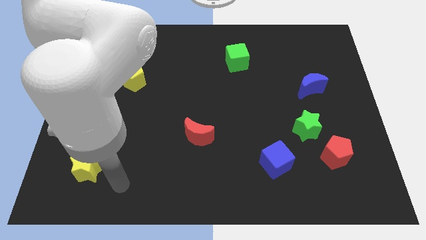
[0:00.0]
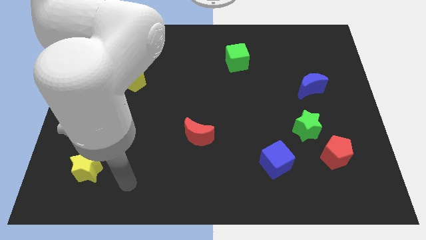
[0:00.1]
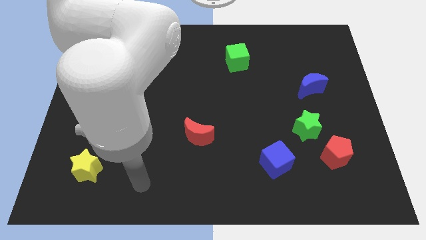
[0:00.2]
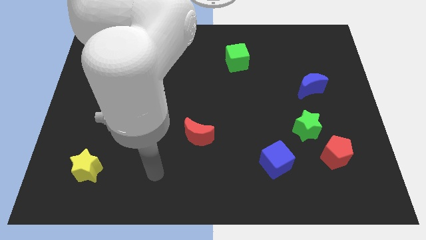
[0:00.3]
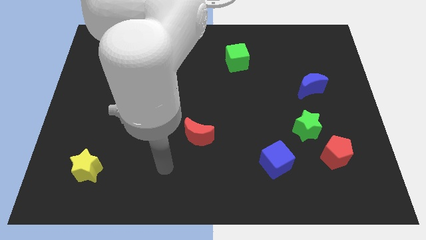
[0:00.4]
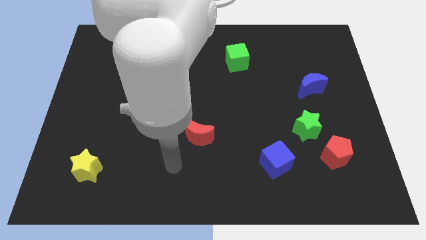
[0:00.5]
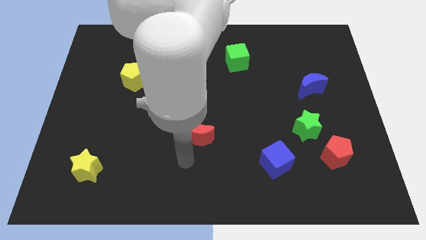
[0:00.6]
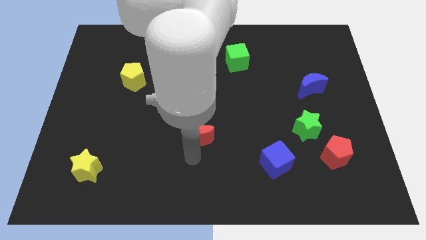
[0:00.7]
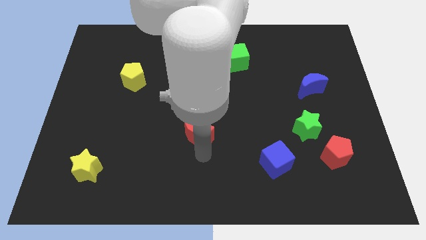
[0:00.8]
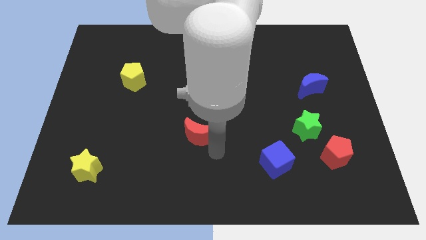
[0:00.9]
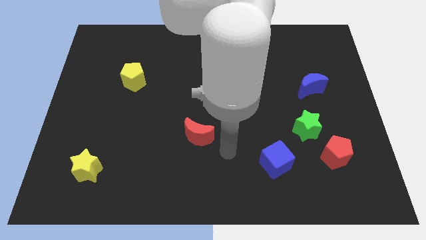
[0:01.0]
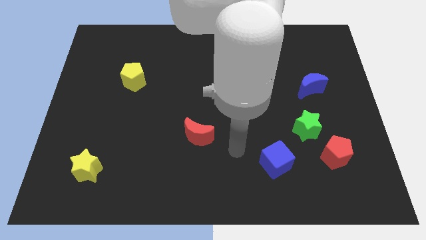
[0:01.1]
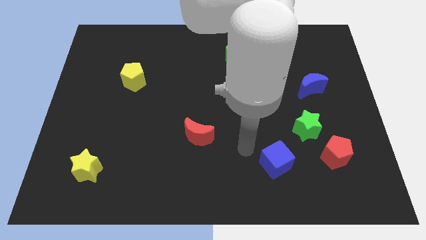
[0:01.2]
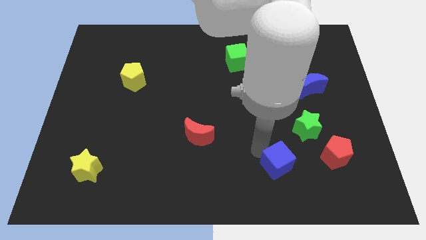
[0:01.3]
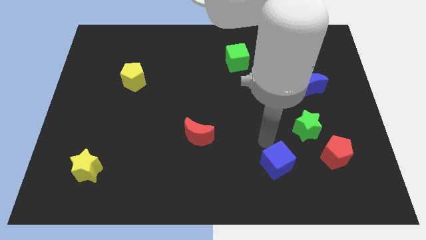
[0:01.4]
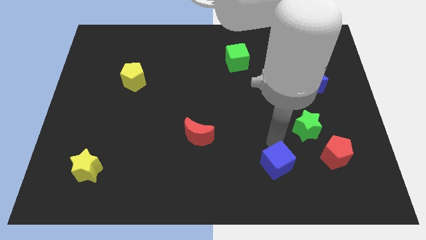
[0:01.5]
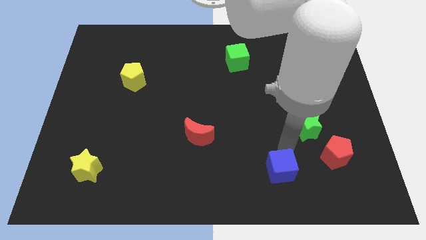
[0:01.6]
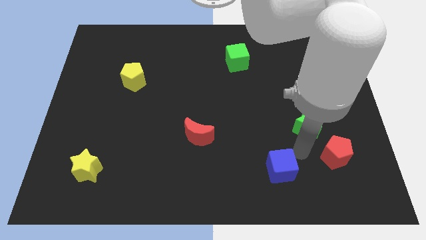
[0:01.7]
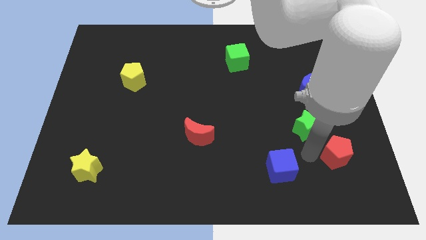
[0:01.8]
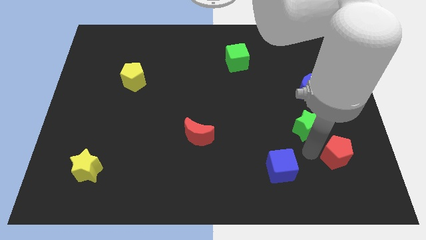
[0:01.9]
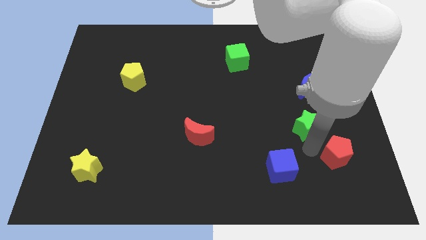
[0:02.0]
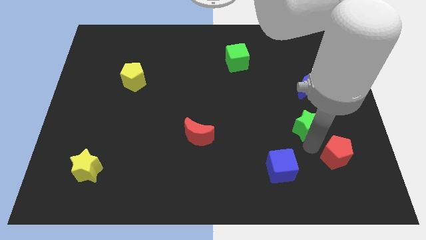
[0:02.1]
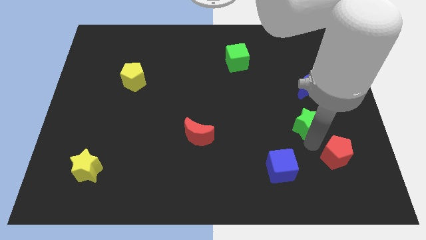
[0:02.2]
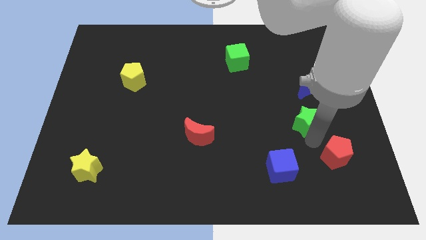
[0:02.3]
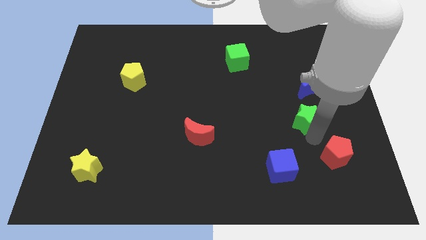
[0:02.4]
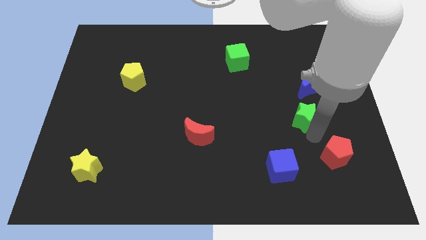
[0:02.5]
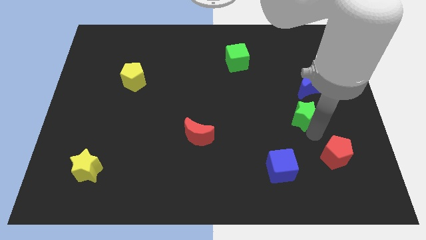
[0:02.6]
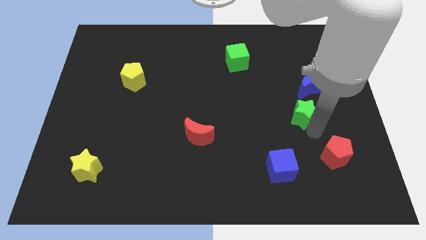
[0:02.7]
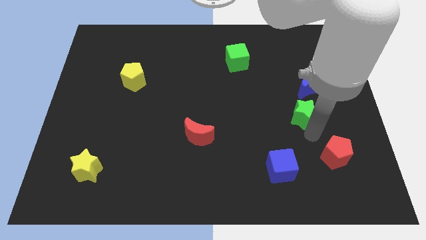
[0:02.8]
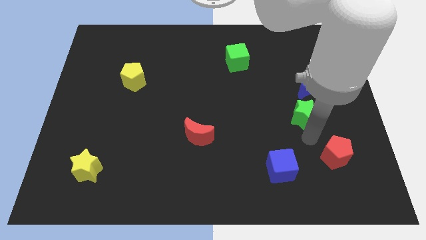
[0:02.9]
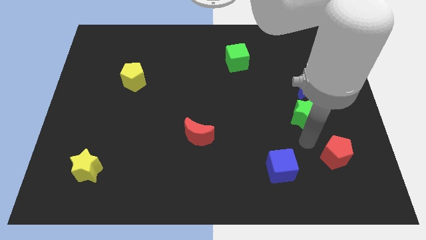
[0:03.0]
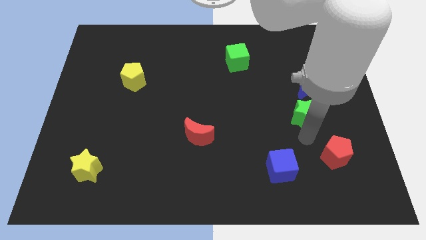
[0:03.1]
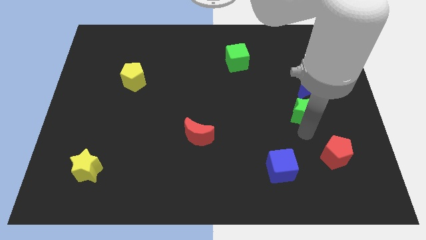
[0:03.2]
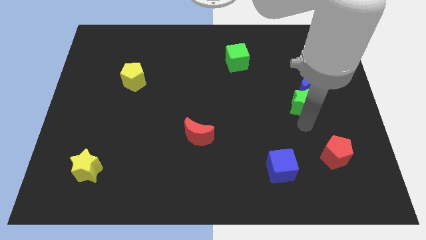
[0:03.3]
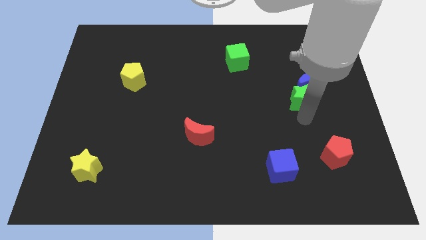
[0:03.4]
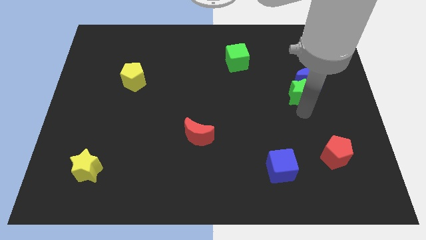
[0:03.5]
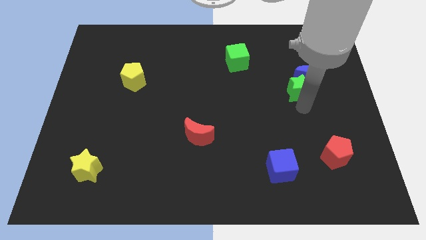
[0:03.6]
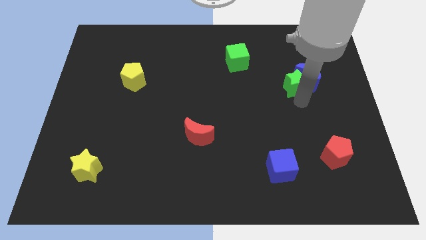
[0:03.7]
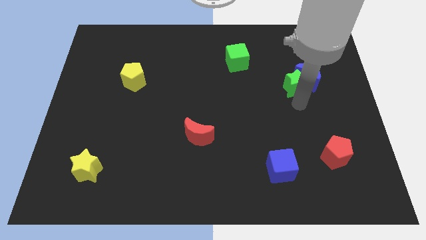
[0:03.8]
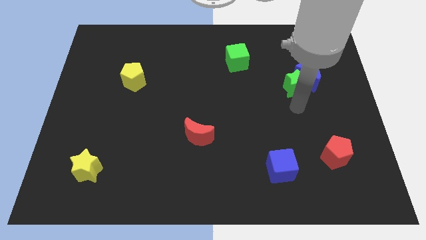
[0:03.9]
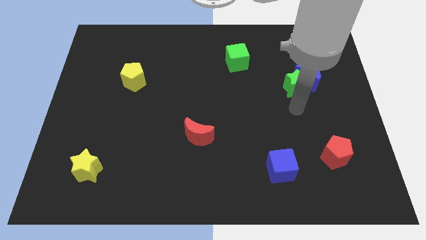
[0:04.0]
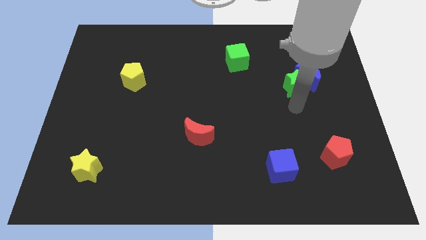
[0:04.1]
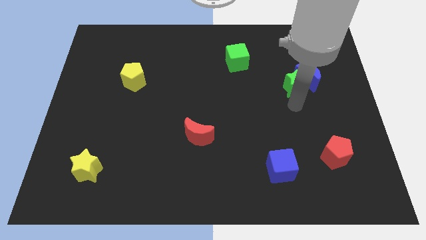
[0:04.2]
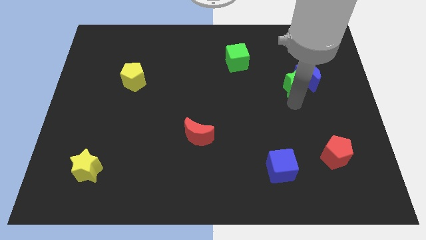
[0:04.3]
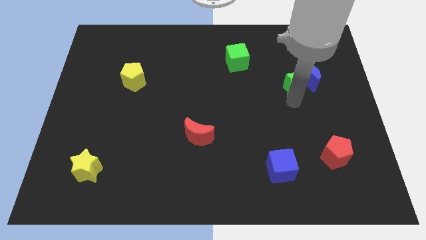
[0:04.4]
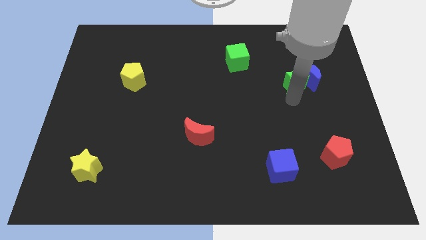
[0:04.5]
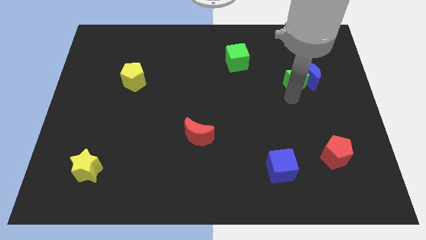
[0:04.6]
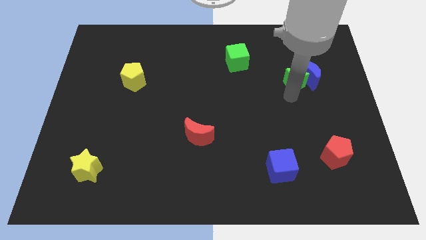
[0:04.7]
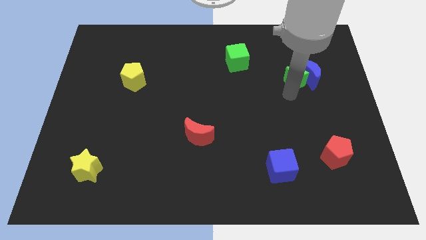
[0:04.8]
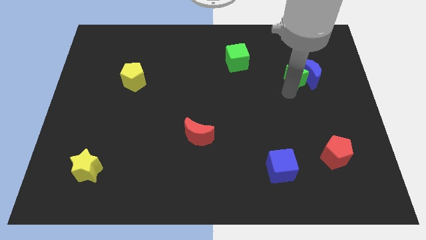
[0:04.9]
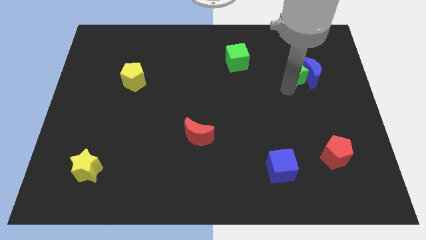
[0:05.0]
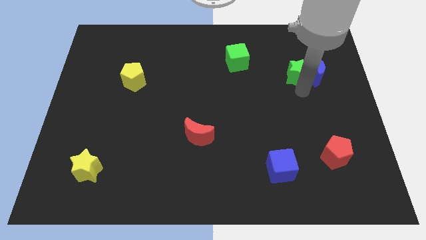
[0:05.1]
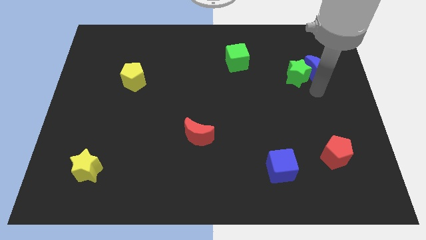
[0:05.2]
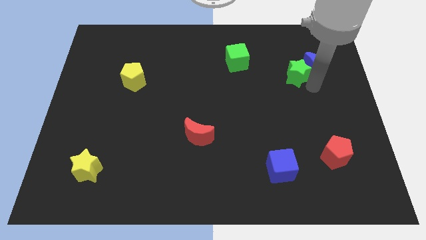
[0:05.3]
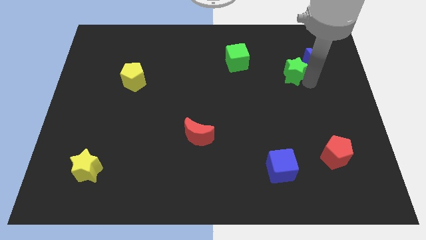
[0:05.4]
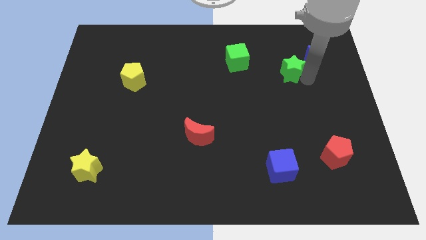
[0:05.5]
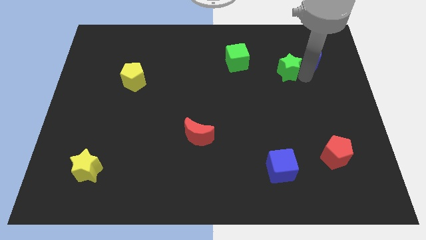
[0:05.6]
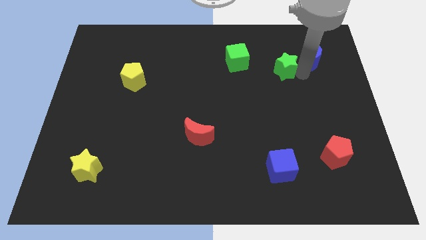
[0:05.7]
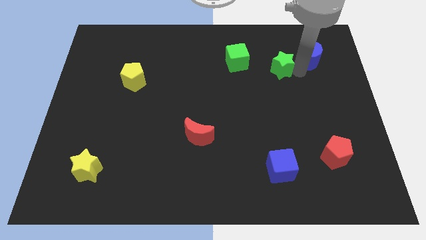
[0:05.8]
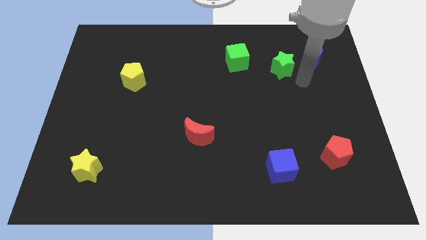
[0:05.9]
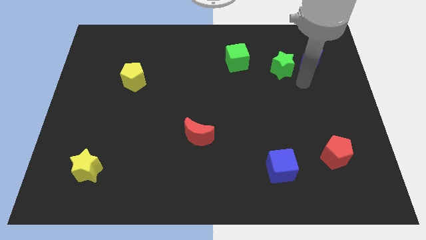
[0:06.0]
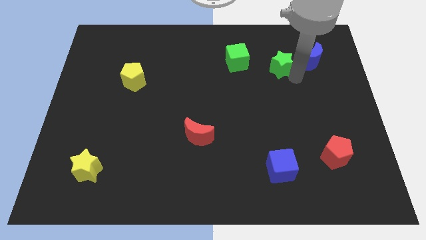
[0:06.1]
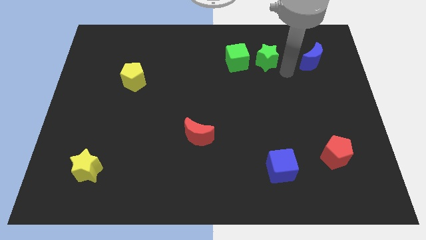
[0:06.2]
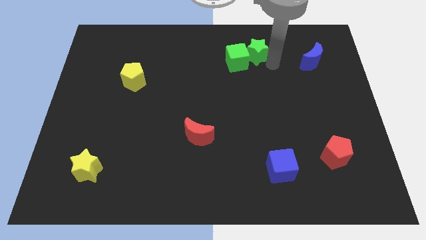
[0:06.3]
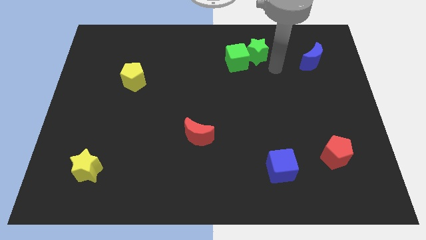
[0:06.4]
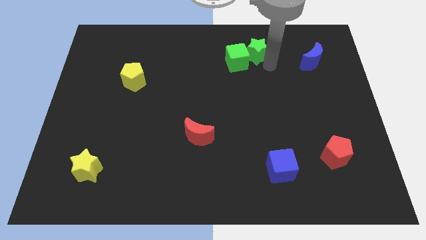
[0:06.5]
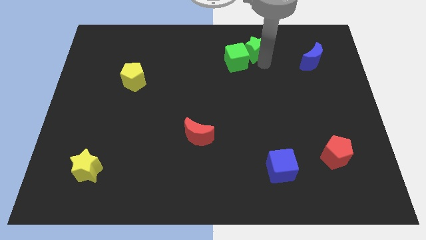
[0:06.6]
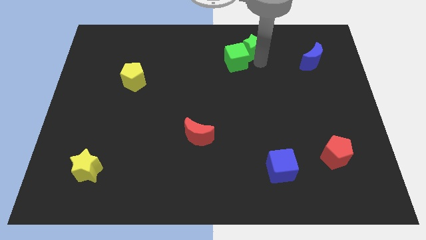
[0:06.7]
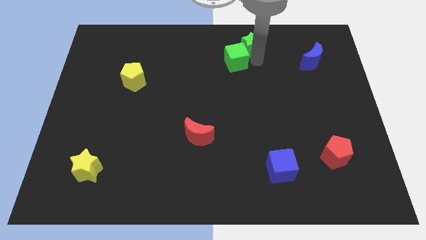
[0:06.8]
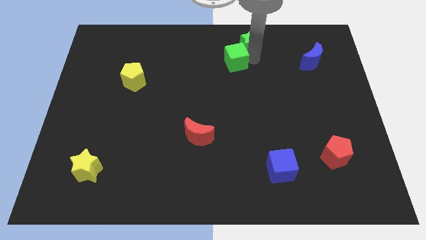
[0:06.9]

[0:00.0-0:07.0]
push the green star to the top
